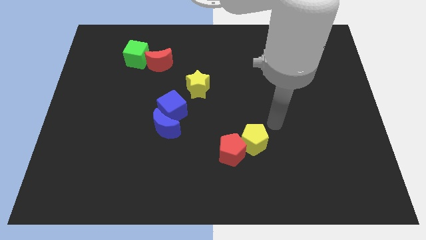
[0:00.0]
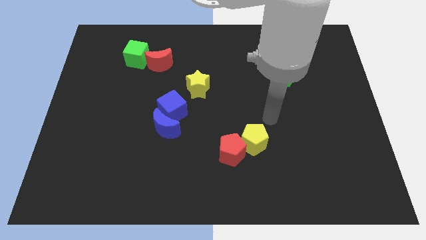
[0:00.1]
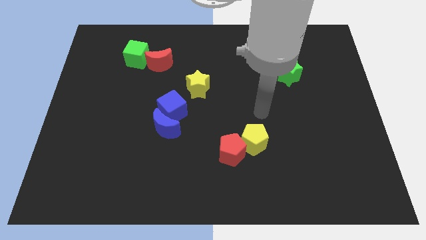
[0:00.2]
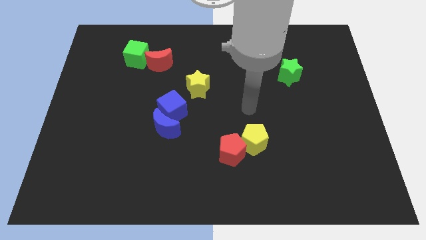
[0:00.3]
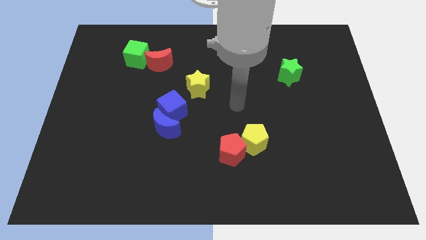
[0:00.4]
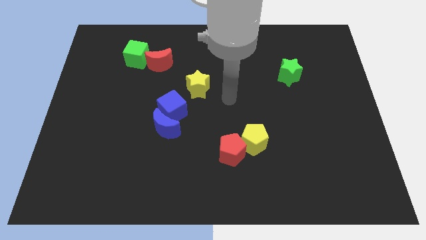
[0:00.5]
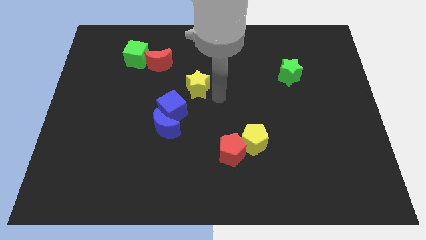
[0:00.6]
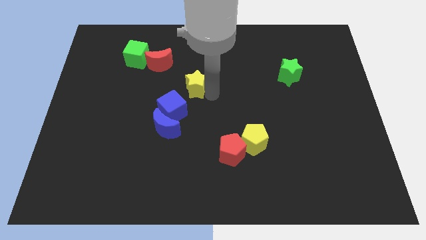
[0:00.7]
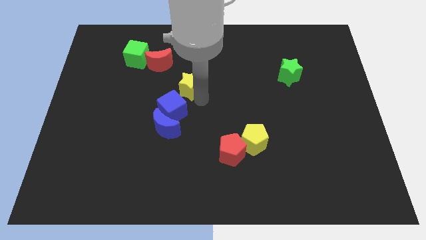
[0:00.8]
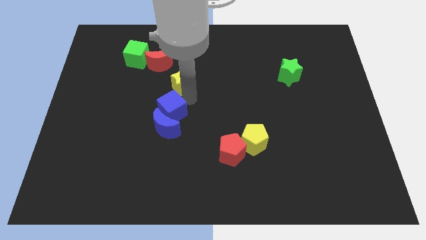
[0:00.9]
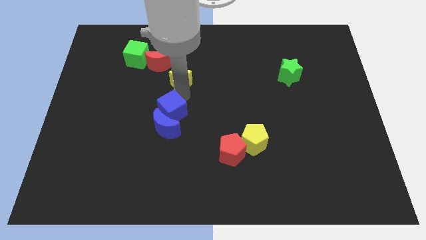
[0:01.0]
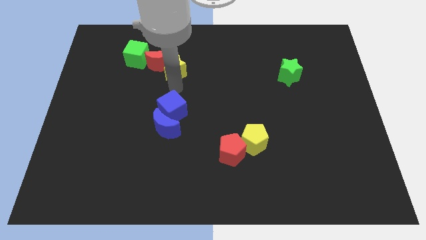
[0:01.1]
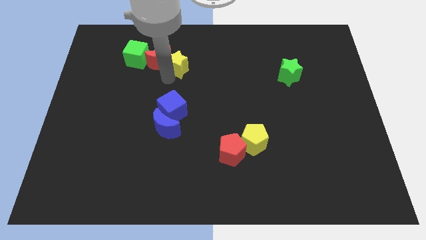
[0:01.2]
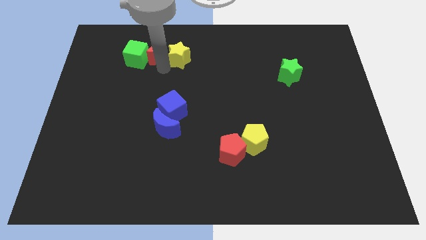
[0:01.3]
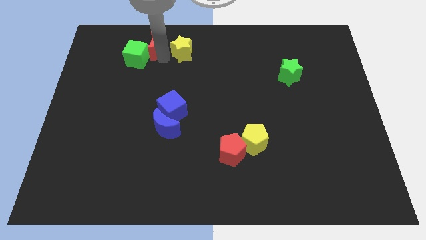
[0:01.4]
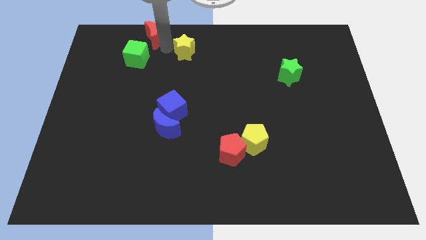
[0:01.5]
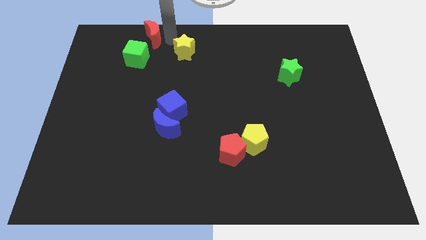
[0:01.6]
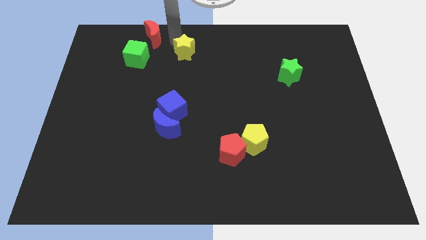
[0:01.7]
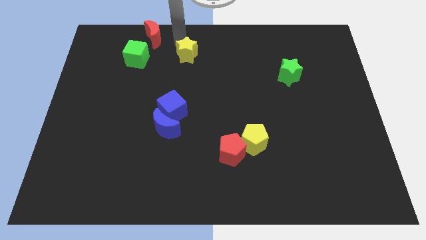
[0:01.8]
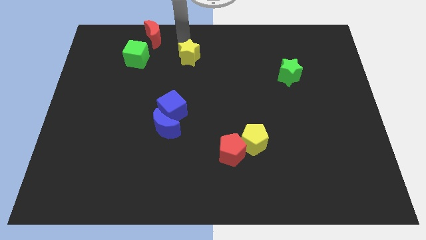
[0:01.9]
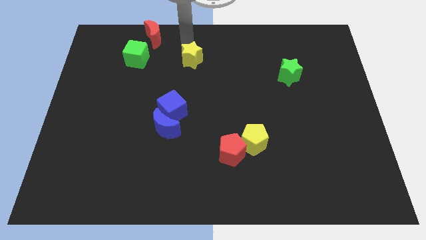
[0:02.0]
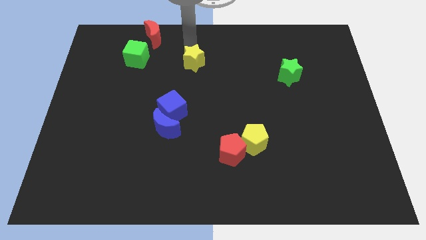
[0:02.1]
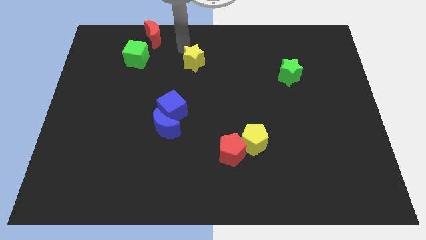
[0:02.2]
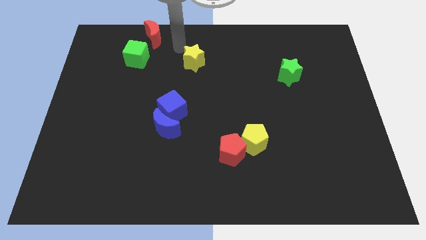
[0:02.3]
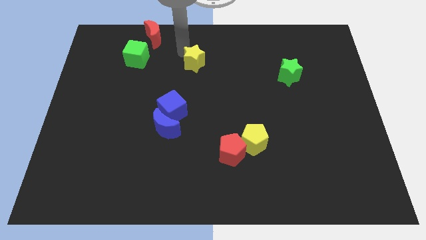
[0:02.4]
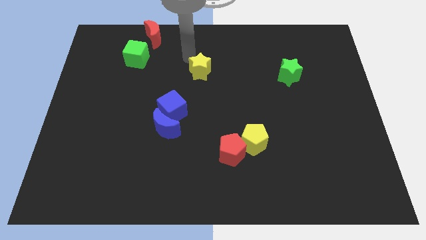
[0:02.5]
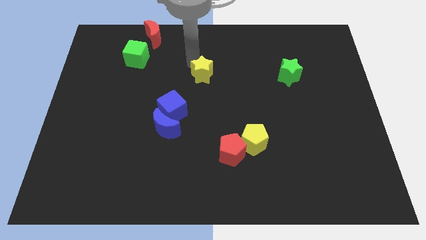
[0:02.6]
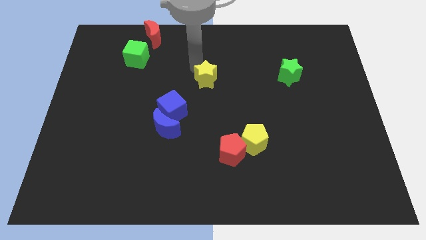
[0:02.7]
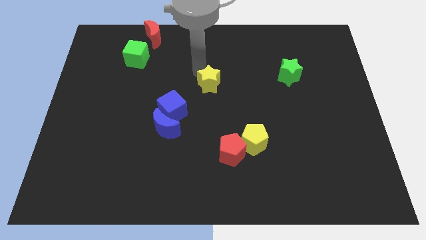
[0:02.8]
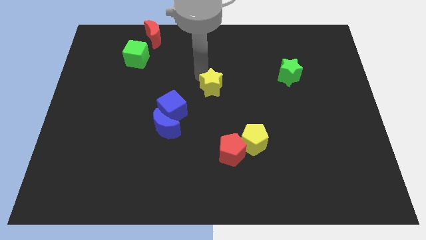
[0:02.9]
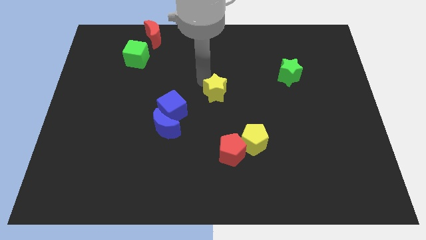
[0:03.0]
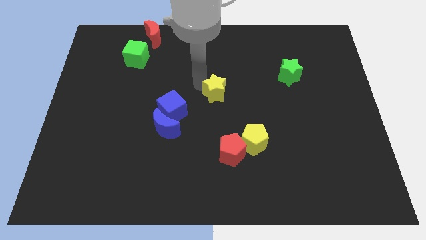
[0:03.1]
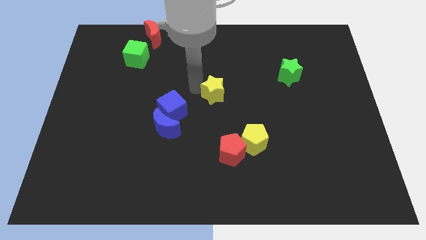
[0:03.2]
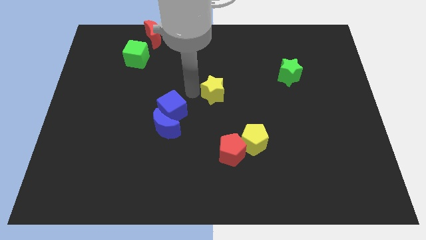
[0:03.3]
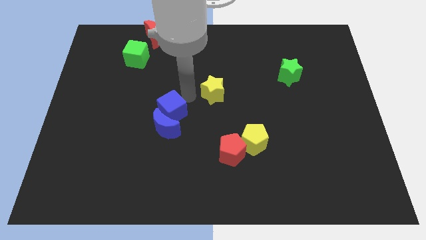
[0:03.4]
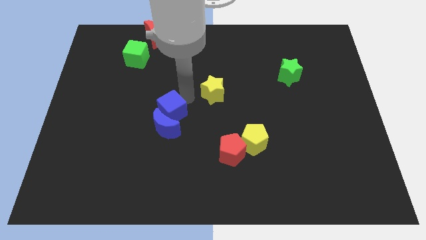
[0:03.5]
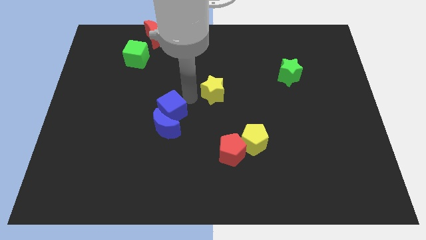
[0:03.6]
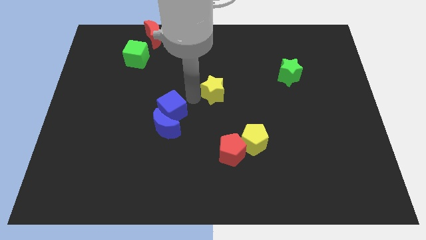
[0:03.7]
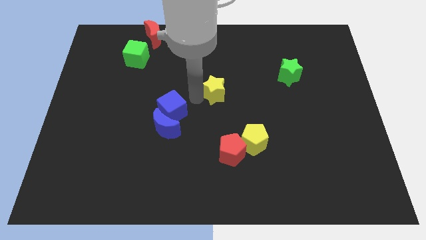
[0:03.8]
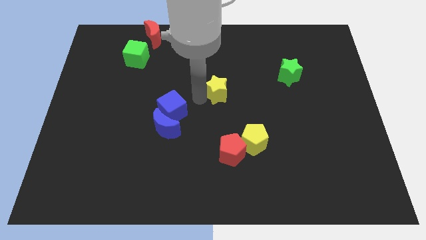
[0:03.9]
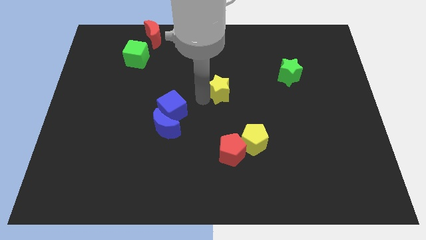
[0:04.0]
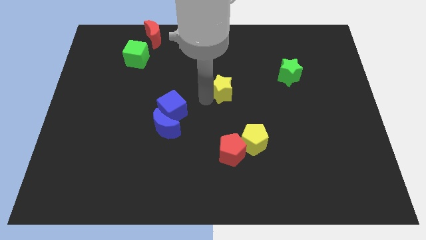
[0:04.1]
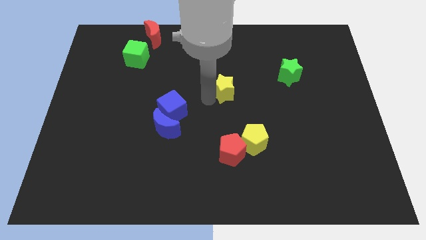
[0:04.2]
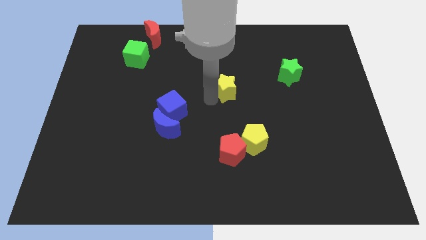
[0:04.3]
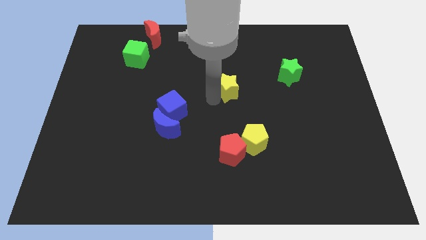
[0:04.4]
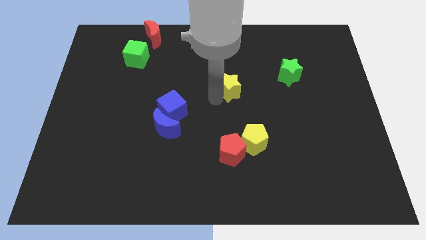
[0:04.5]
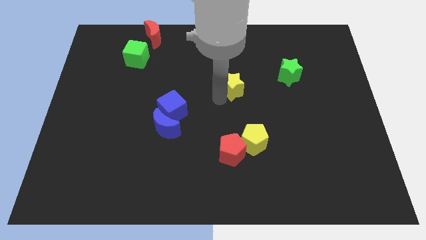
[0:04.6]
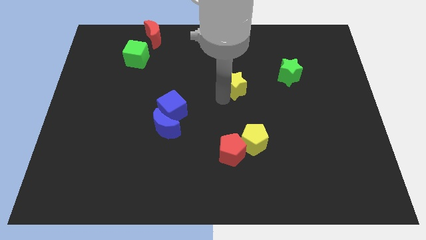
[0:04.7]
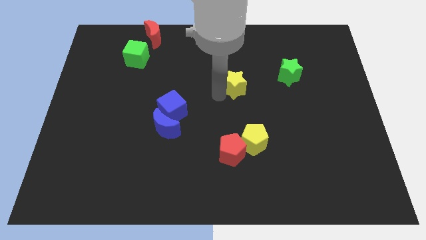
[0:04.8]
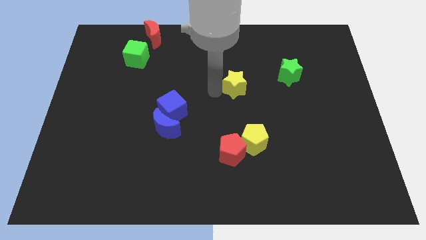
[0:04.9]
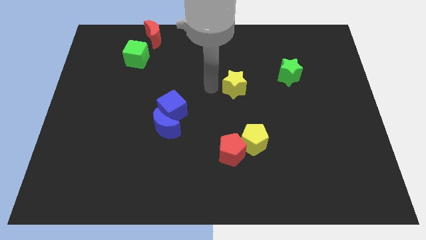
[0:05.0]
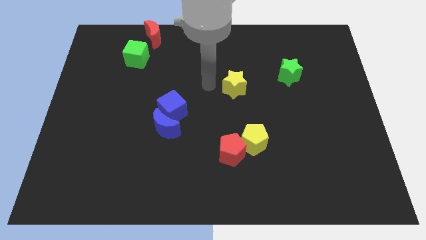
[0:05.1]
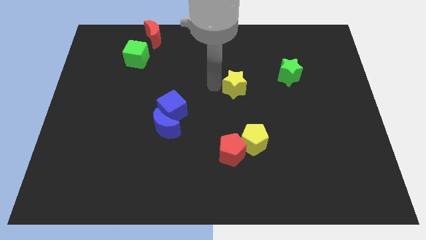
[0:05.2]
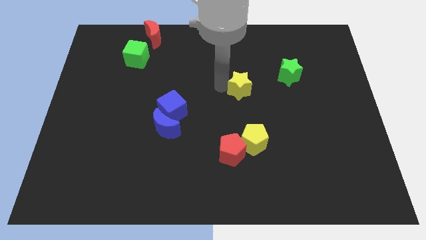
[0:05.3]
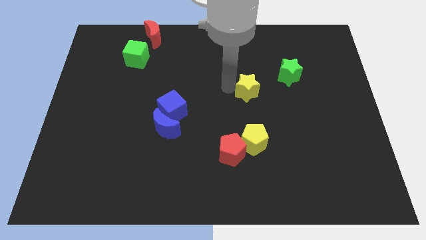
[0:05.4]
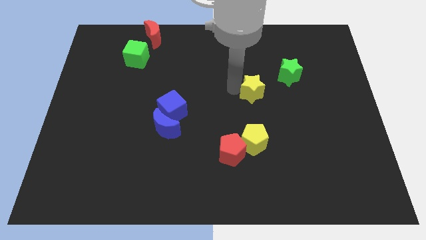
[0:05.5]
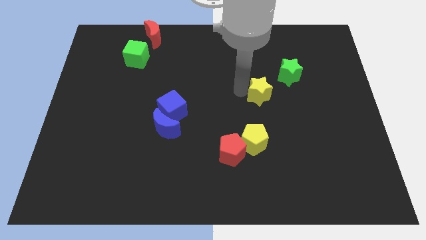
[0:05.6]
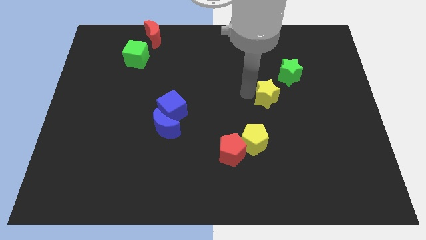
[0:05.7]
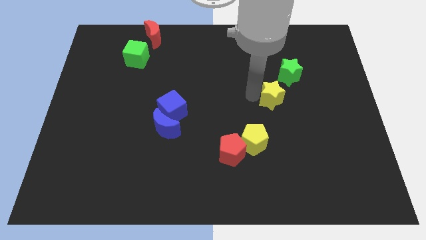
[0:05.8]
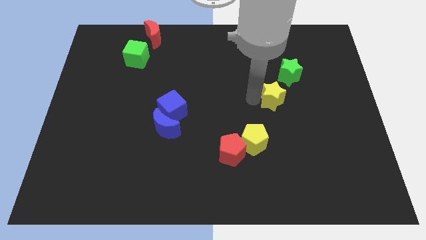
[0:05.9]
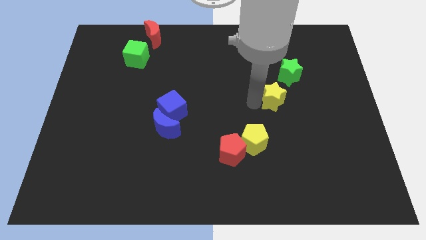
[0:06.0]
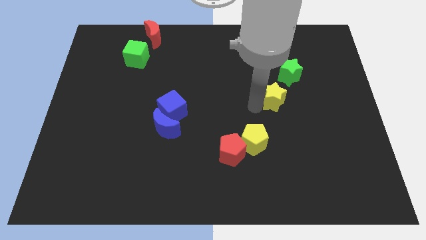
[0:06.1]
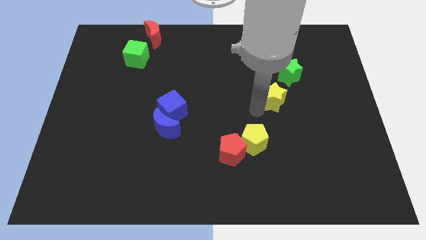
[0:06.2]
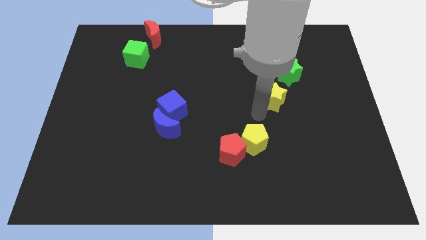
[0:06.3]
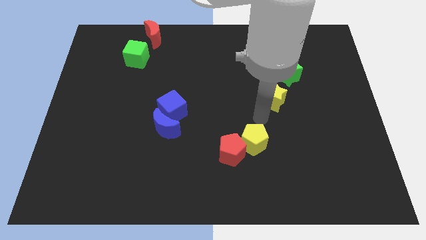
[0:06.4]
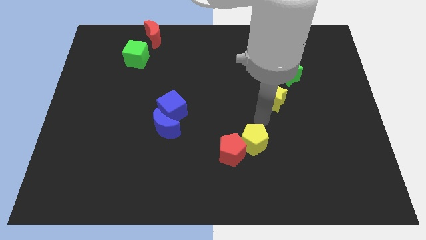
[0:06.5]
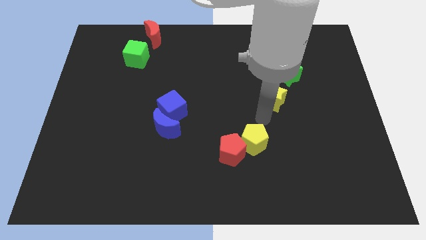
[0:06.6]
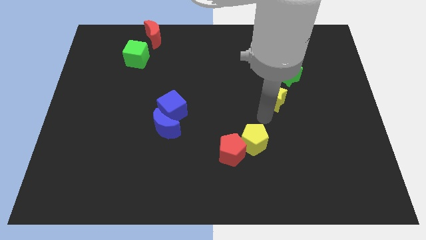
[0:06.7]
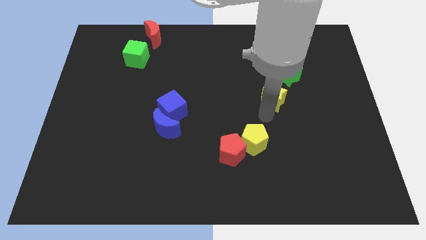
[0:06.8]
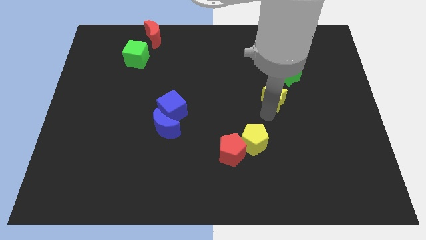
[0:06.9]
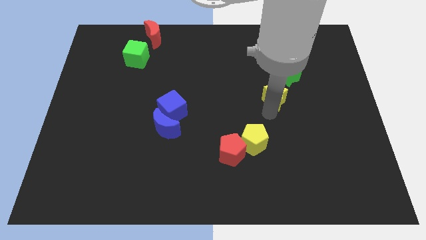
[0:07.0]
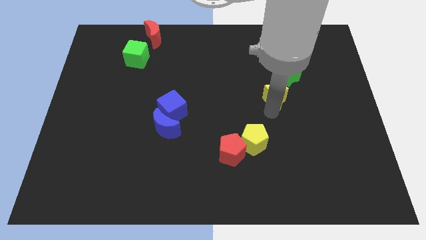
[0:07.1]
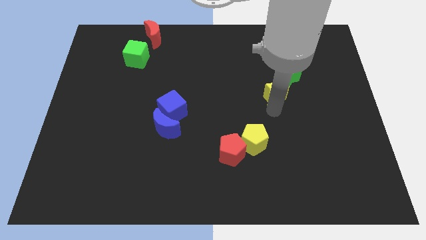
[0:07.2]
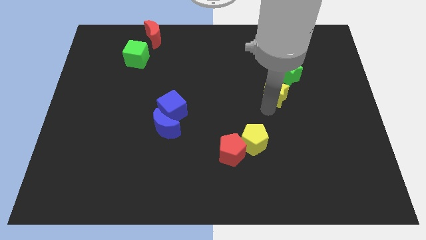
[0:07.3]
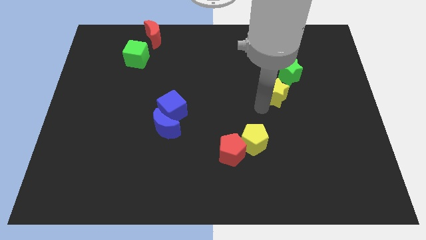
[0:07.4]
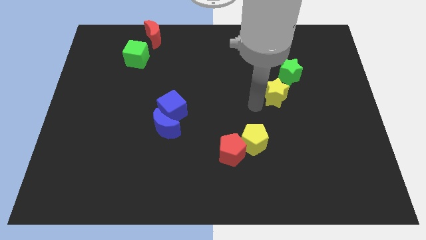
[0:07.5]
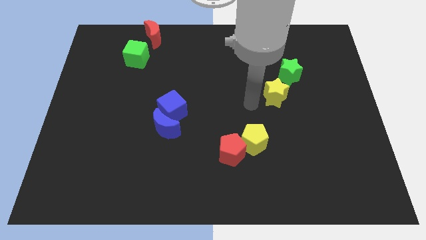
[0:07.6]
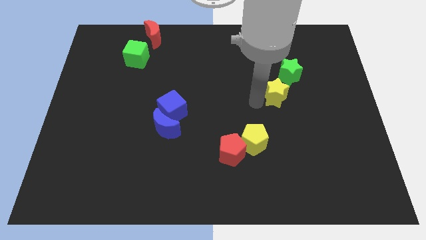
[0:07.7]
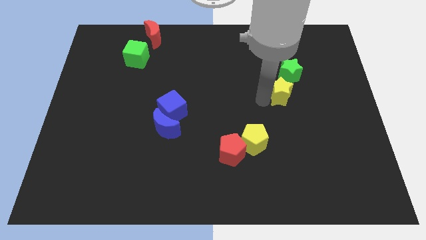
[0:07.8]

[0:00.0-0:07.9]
push the yellow star to the right

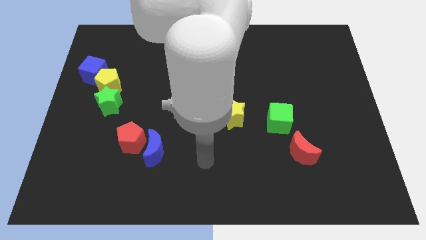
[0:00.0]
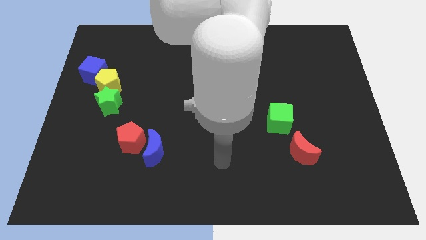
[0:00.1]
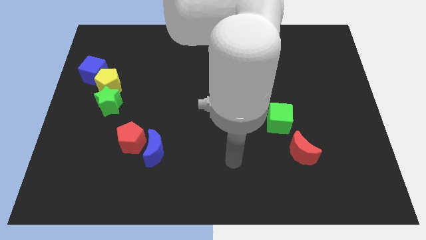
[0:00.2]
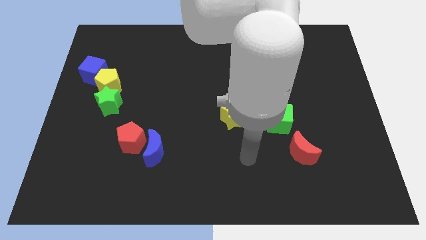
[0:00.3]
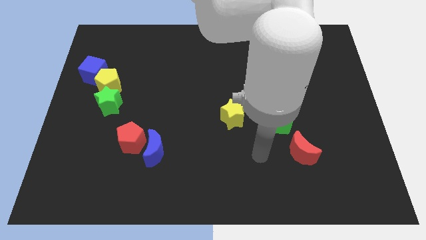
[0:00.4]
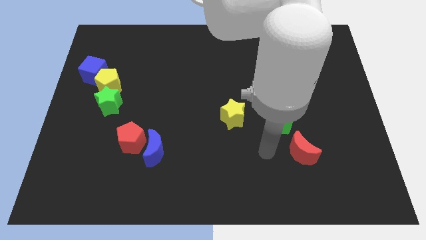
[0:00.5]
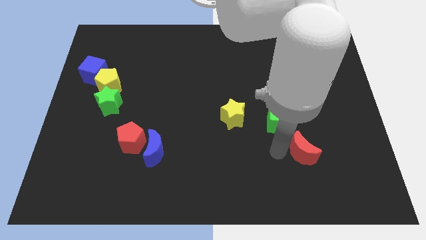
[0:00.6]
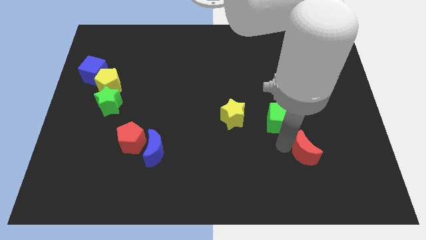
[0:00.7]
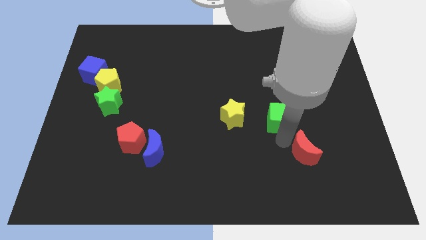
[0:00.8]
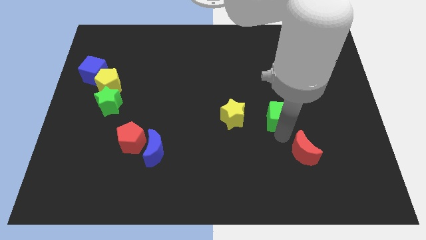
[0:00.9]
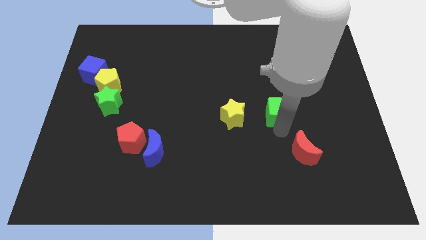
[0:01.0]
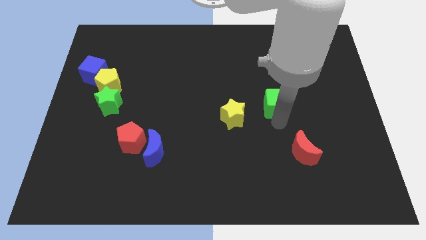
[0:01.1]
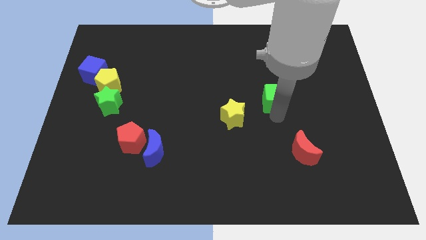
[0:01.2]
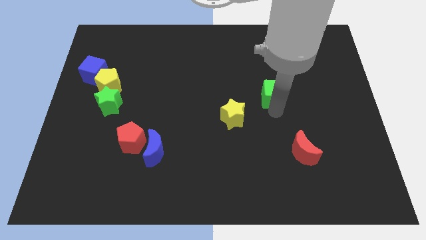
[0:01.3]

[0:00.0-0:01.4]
move the green cube somewhat upwards
